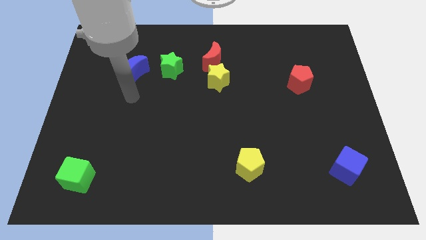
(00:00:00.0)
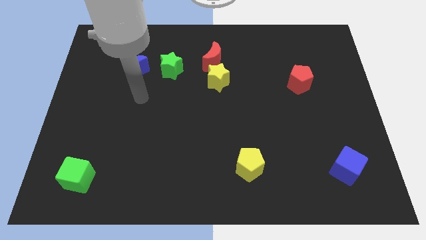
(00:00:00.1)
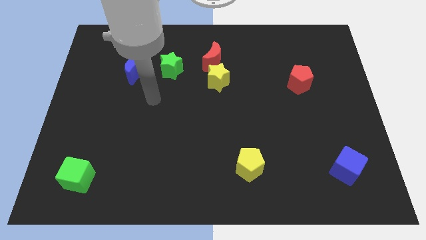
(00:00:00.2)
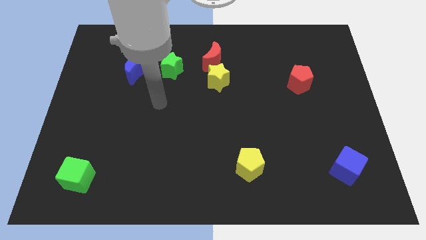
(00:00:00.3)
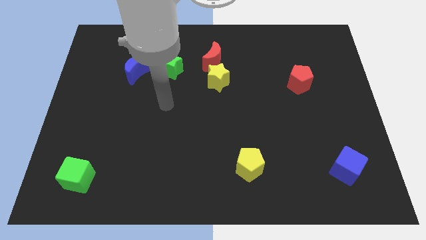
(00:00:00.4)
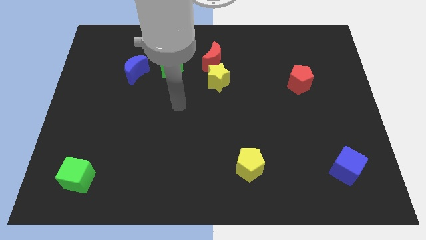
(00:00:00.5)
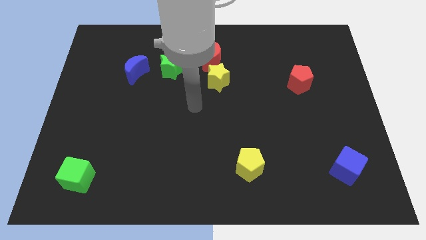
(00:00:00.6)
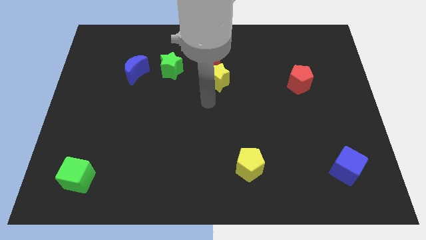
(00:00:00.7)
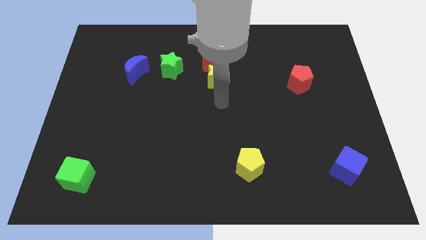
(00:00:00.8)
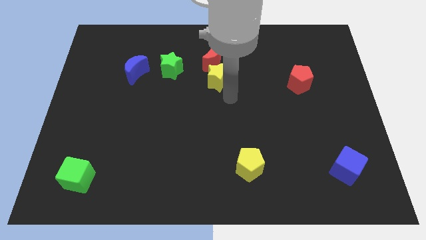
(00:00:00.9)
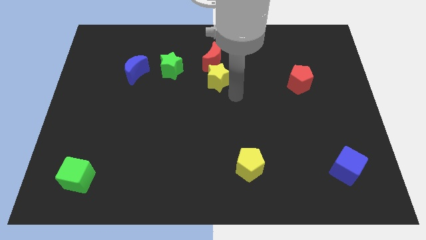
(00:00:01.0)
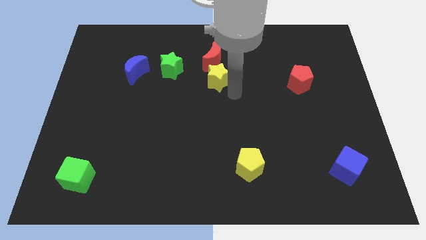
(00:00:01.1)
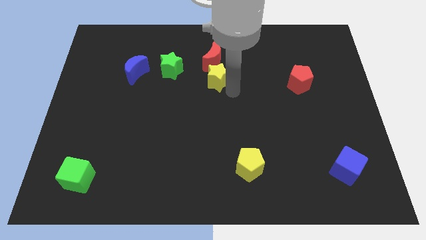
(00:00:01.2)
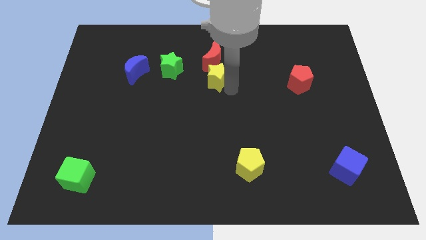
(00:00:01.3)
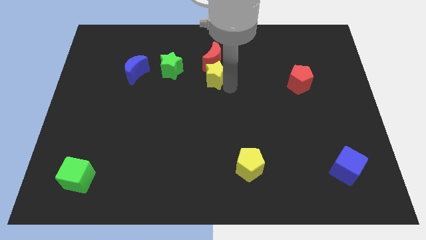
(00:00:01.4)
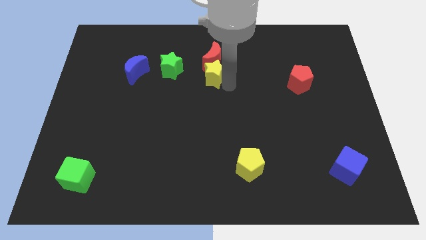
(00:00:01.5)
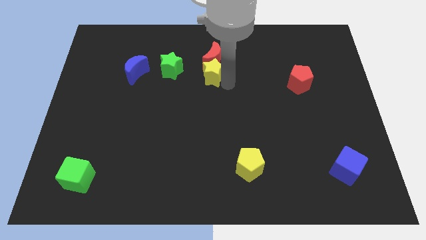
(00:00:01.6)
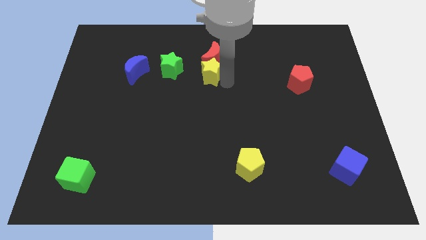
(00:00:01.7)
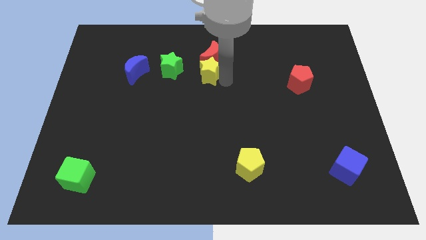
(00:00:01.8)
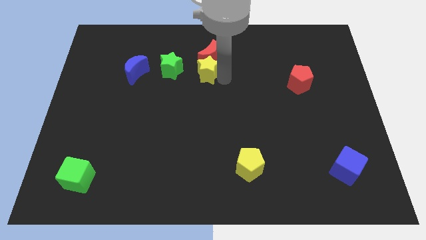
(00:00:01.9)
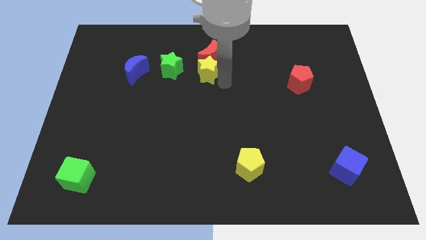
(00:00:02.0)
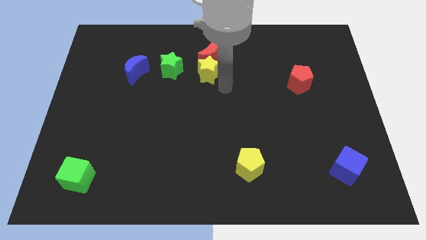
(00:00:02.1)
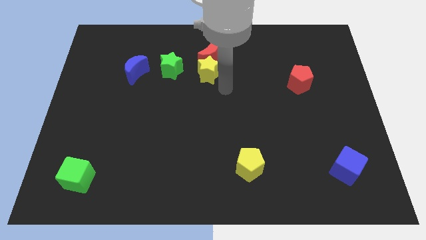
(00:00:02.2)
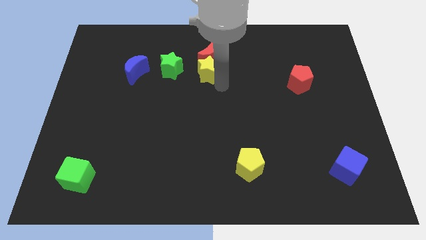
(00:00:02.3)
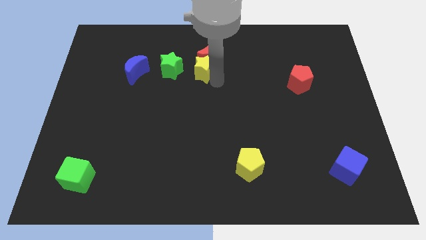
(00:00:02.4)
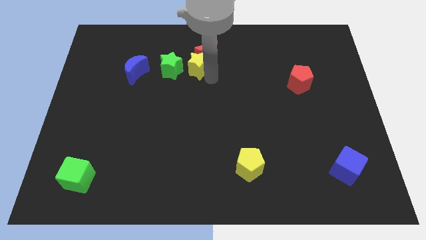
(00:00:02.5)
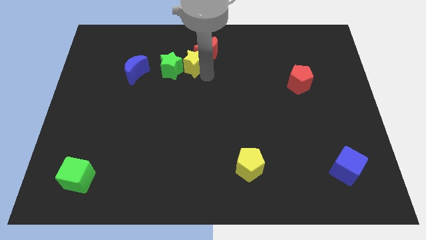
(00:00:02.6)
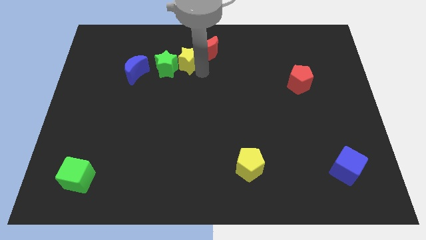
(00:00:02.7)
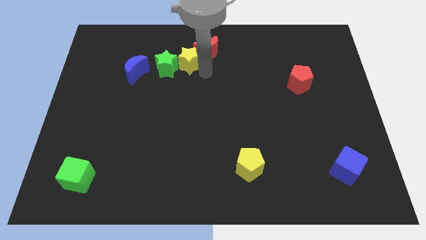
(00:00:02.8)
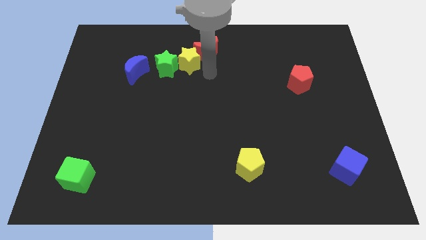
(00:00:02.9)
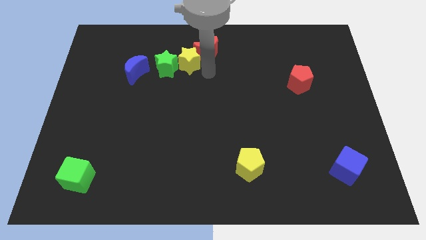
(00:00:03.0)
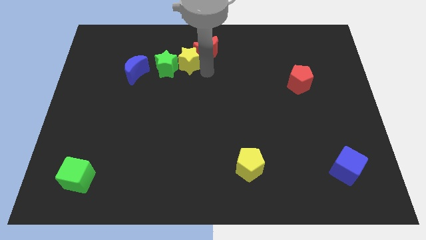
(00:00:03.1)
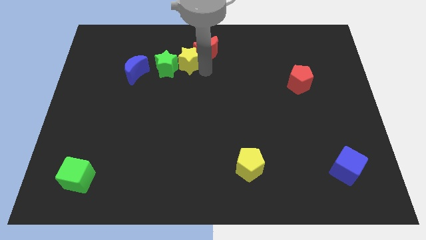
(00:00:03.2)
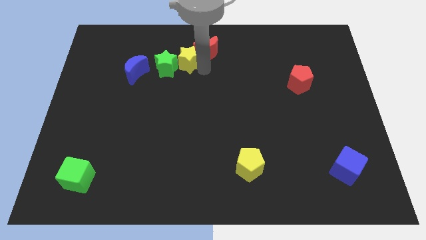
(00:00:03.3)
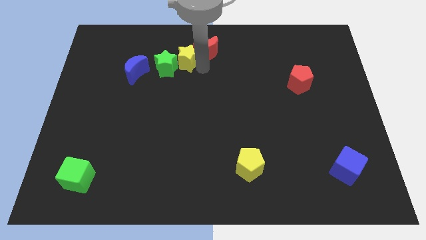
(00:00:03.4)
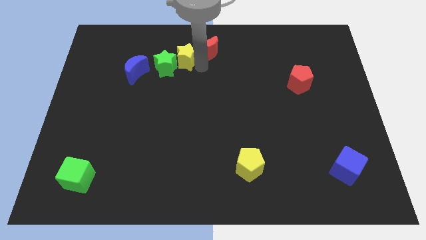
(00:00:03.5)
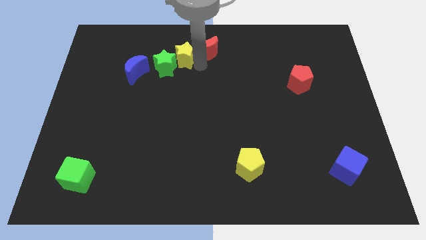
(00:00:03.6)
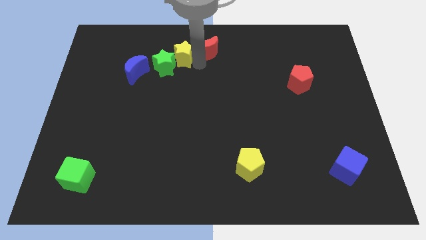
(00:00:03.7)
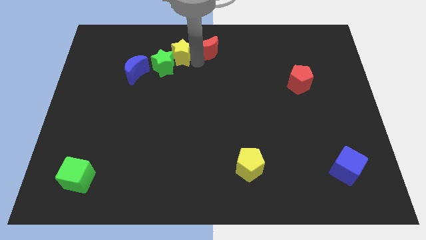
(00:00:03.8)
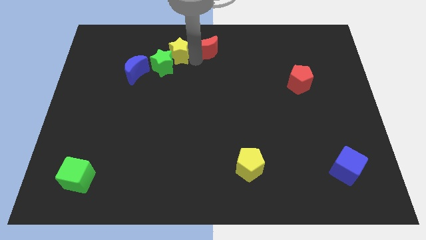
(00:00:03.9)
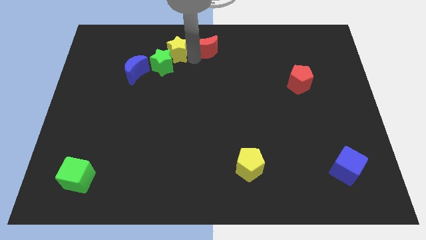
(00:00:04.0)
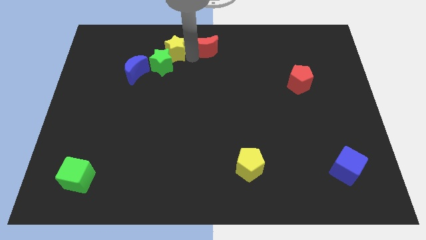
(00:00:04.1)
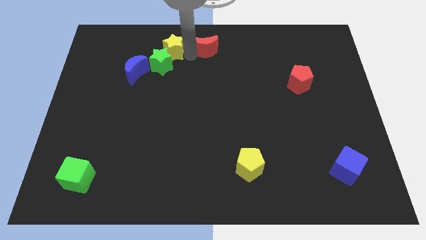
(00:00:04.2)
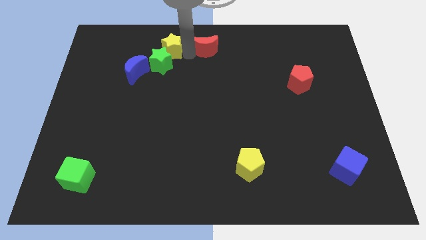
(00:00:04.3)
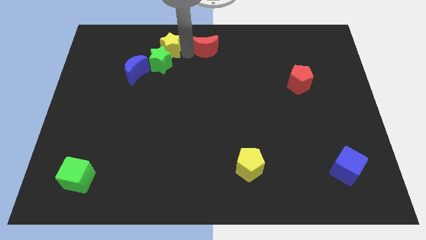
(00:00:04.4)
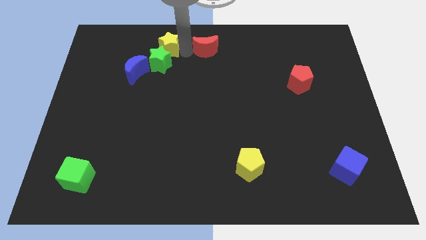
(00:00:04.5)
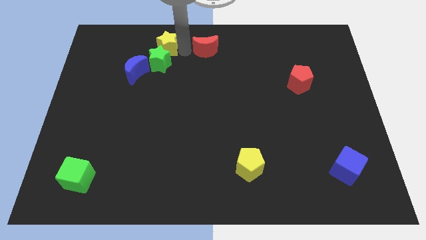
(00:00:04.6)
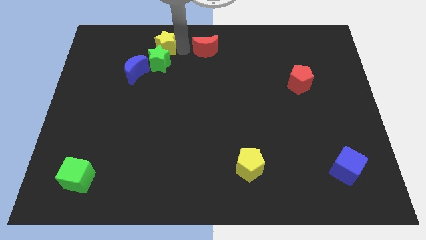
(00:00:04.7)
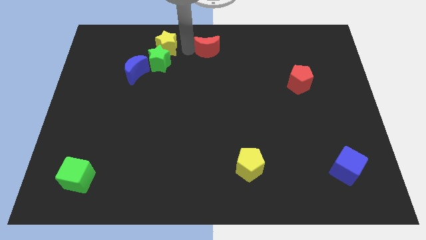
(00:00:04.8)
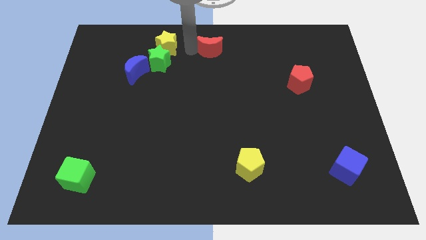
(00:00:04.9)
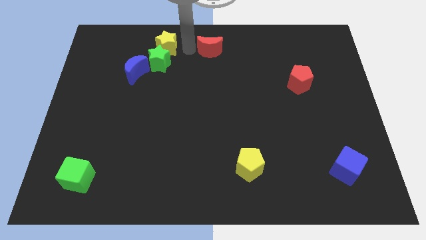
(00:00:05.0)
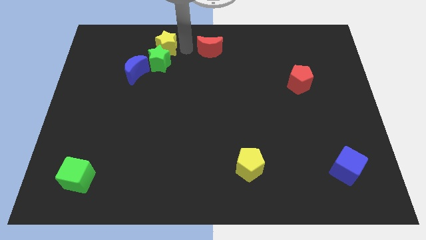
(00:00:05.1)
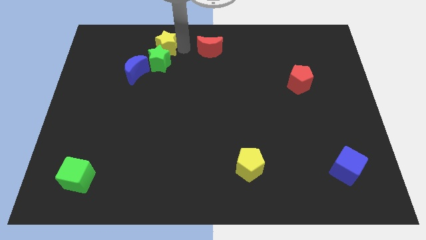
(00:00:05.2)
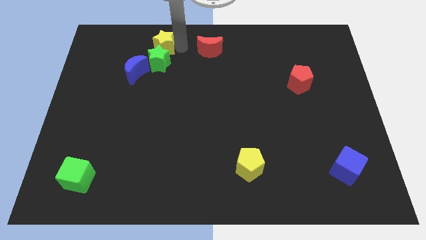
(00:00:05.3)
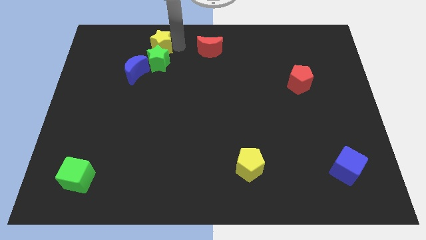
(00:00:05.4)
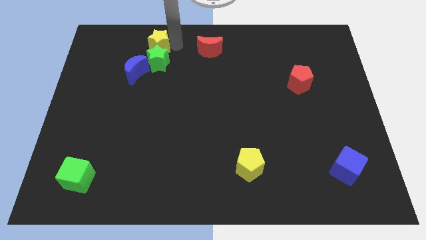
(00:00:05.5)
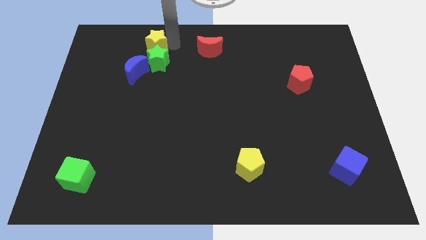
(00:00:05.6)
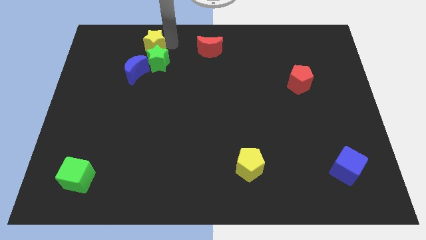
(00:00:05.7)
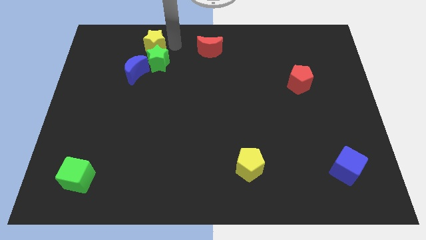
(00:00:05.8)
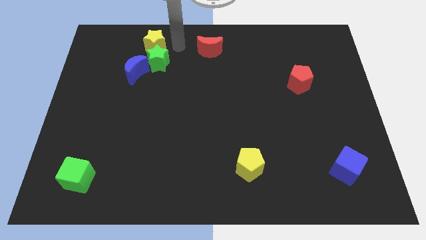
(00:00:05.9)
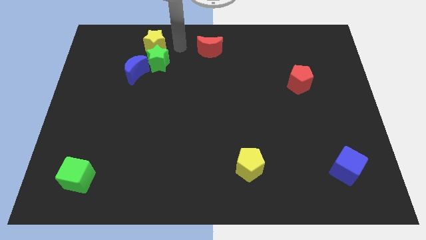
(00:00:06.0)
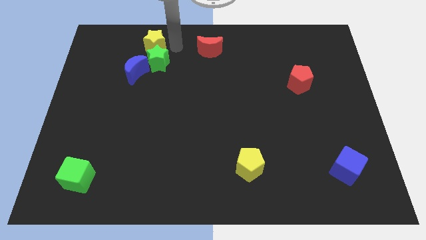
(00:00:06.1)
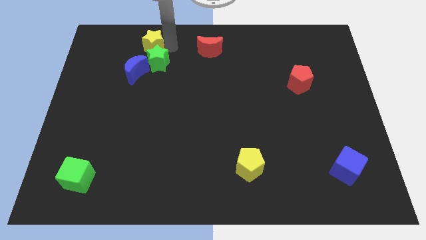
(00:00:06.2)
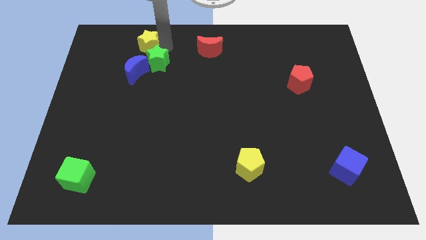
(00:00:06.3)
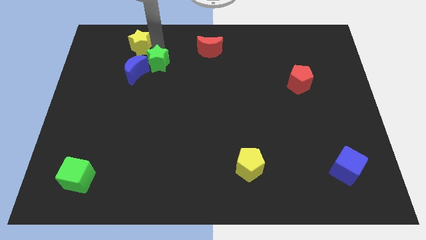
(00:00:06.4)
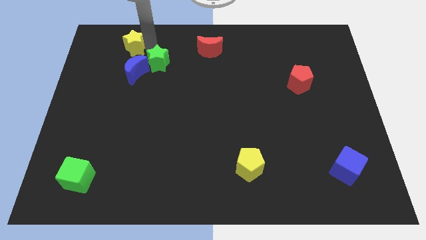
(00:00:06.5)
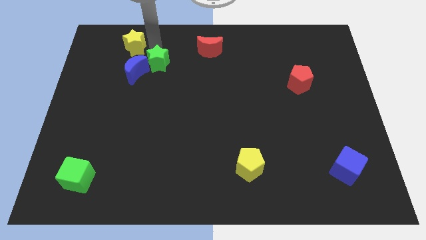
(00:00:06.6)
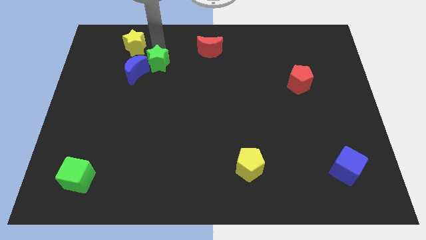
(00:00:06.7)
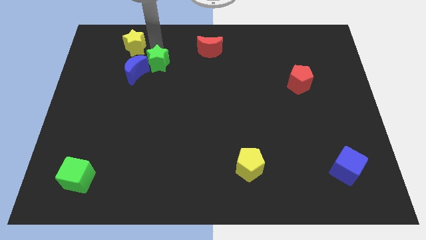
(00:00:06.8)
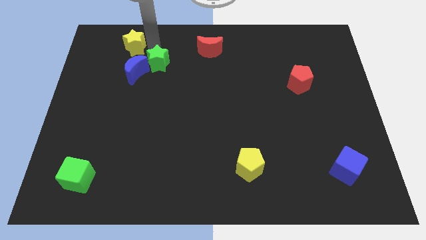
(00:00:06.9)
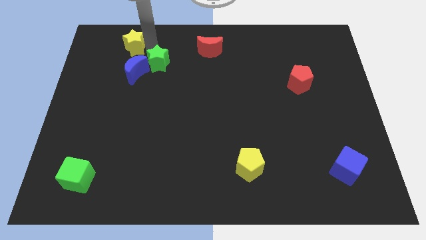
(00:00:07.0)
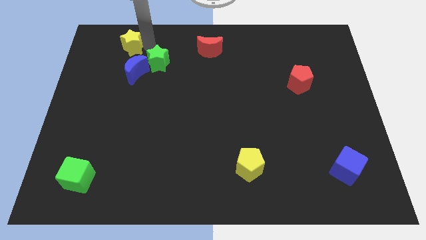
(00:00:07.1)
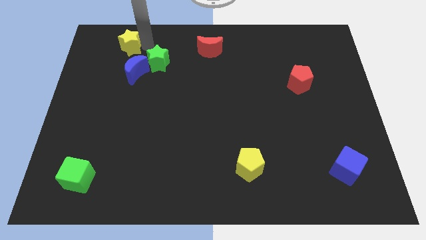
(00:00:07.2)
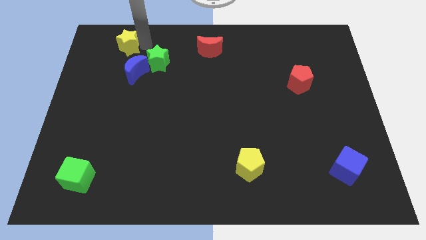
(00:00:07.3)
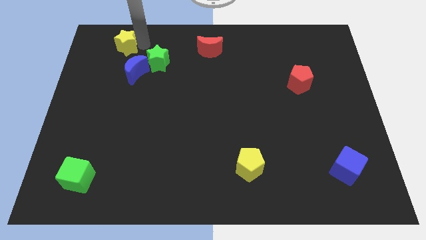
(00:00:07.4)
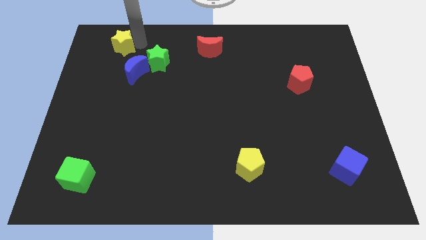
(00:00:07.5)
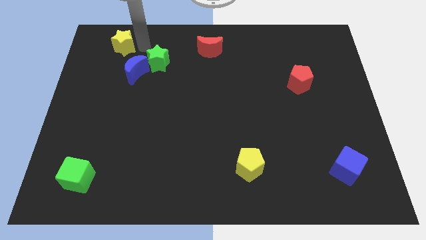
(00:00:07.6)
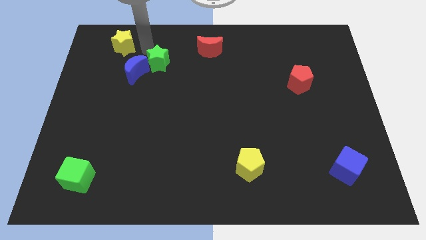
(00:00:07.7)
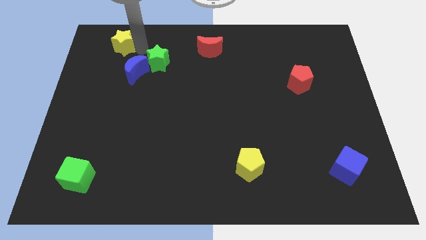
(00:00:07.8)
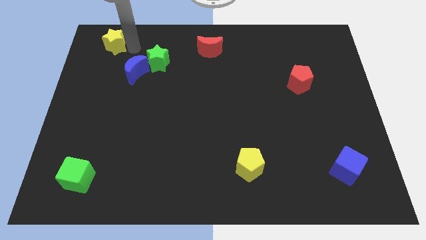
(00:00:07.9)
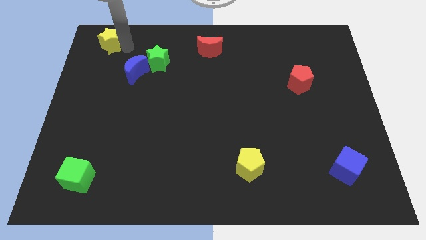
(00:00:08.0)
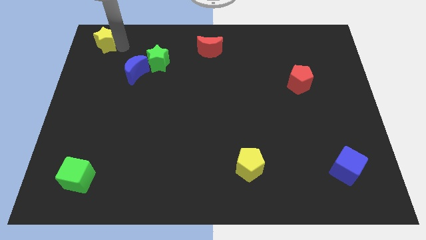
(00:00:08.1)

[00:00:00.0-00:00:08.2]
move the yellow star to the upper left corner
